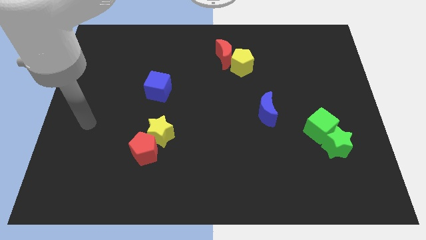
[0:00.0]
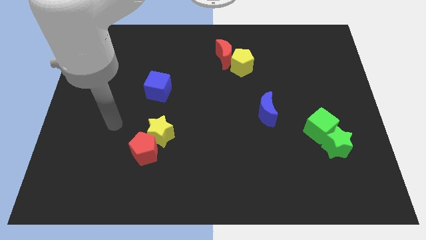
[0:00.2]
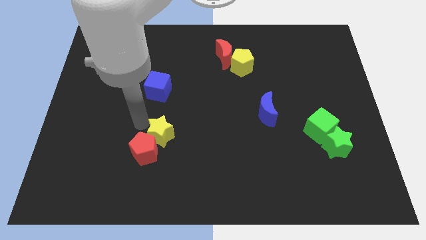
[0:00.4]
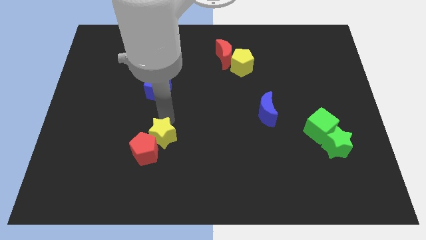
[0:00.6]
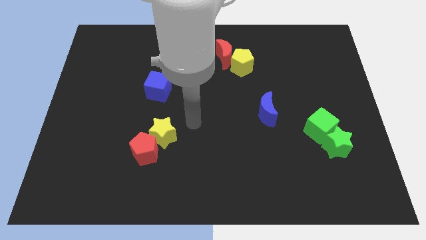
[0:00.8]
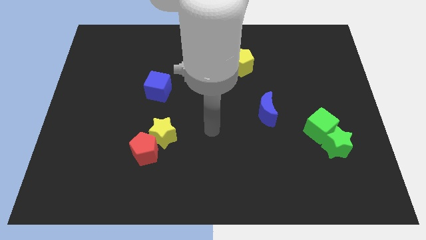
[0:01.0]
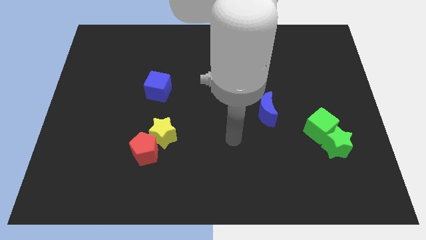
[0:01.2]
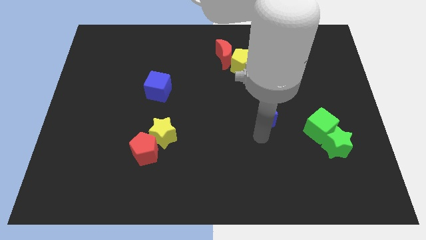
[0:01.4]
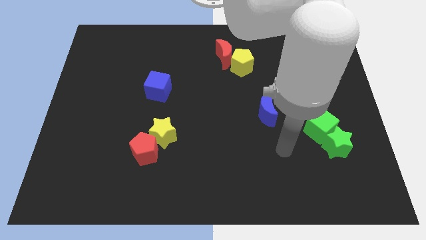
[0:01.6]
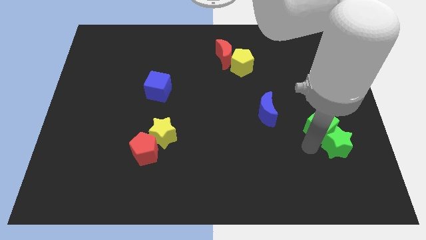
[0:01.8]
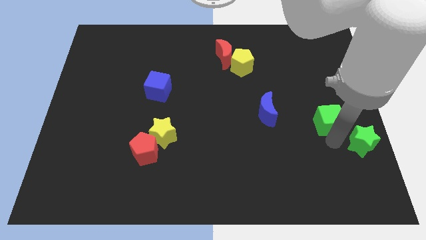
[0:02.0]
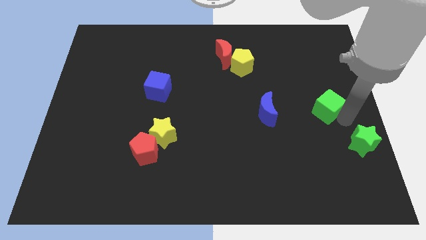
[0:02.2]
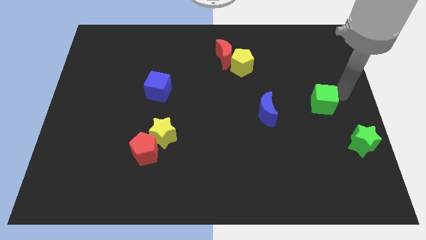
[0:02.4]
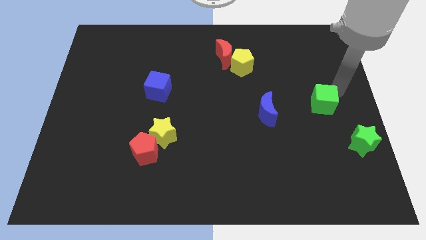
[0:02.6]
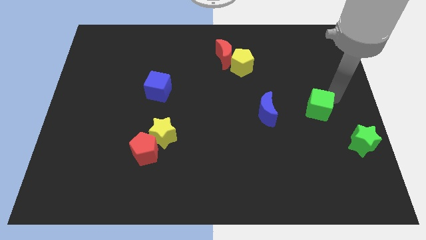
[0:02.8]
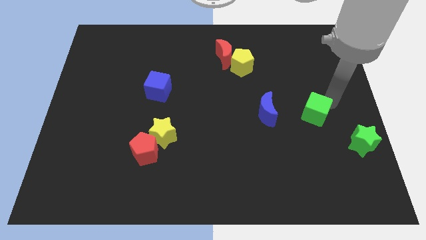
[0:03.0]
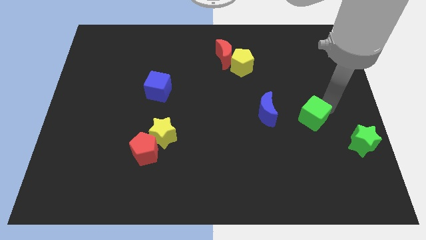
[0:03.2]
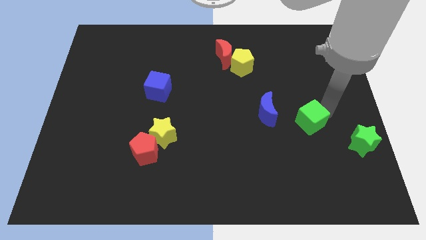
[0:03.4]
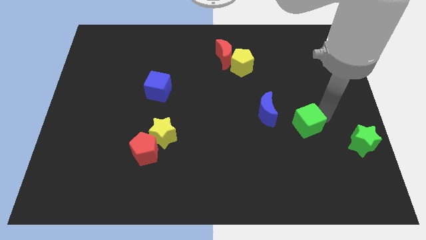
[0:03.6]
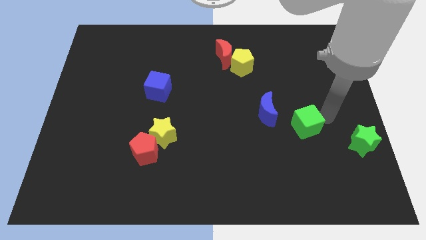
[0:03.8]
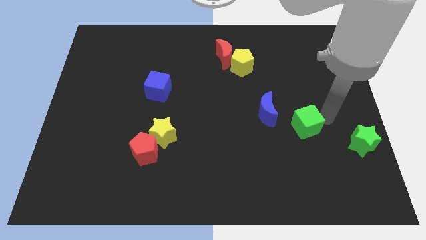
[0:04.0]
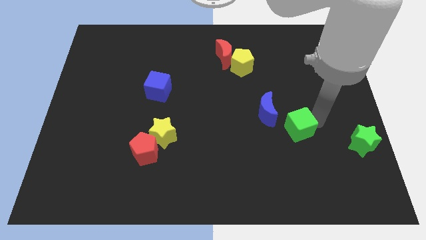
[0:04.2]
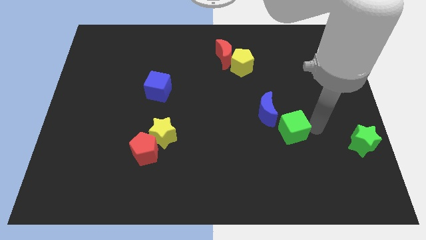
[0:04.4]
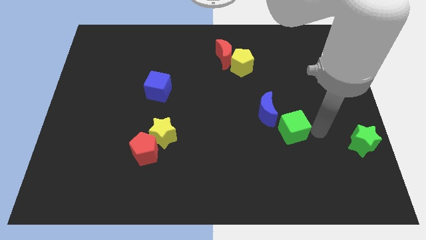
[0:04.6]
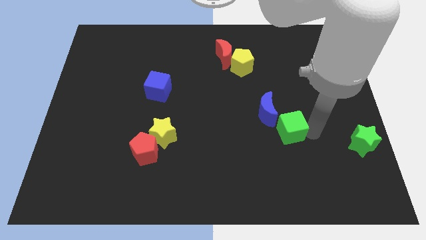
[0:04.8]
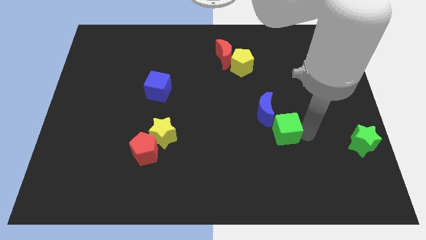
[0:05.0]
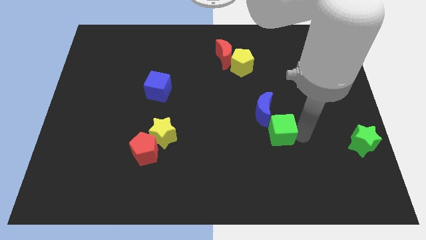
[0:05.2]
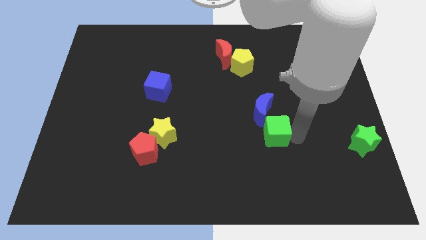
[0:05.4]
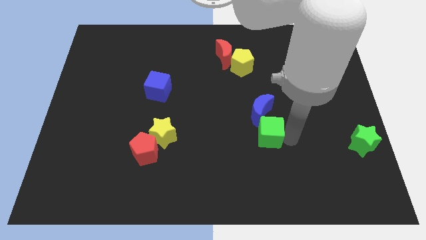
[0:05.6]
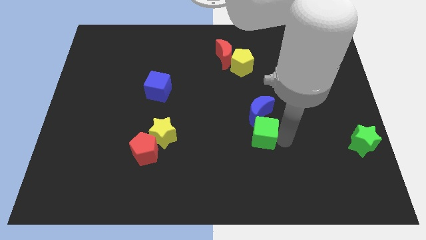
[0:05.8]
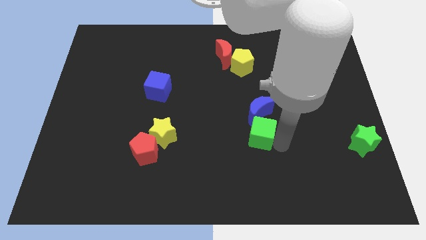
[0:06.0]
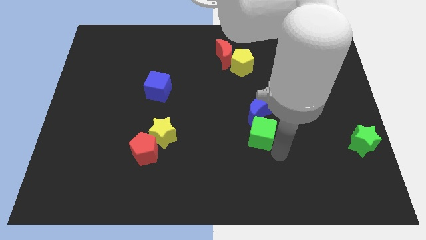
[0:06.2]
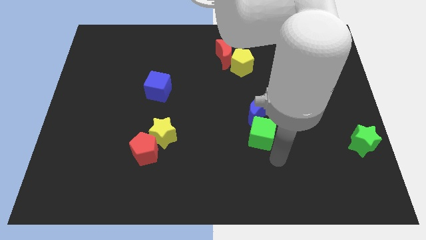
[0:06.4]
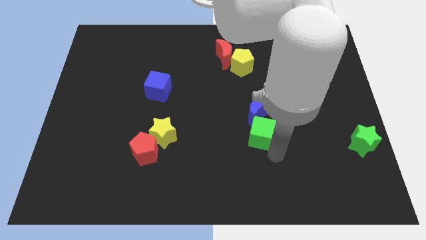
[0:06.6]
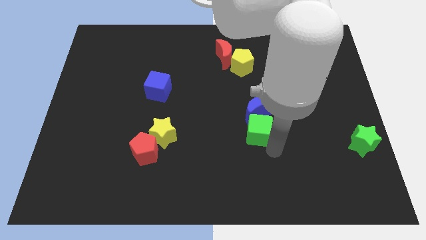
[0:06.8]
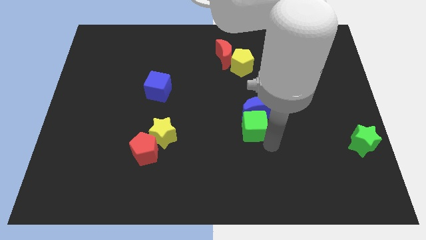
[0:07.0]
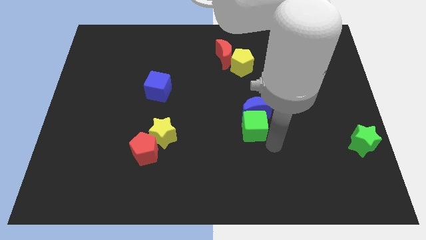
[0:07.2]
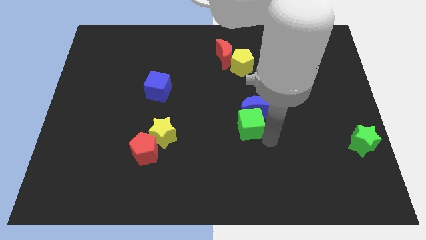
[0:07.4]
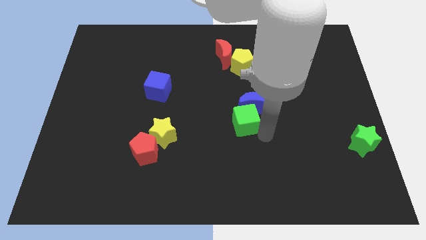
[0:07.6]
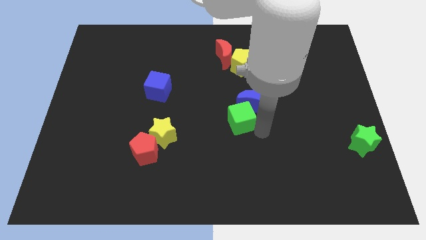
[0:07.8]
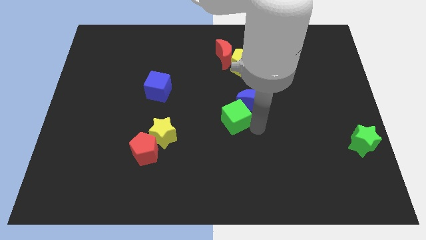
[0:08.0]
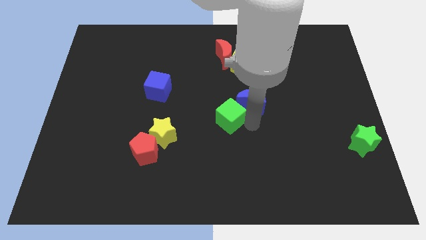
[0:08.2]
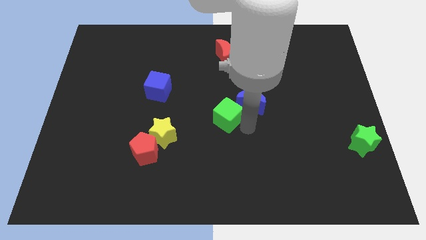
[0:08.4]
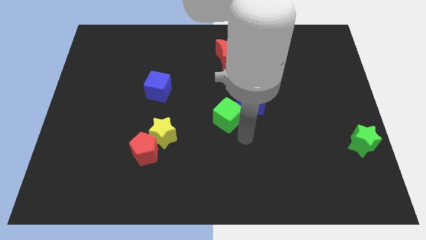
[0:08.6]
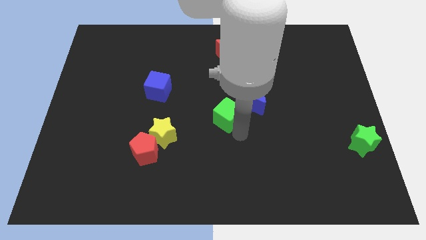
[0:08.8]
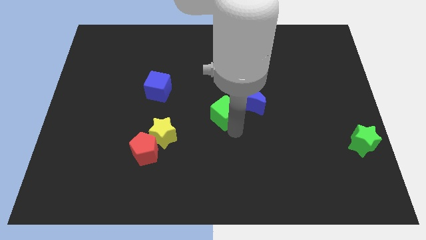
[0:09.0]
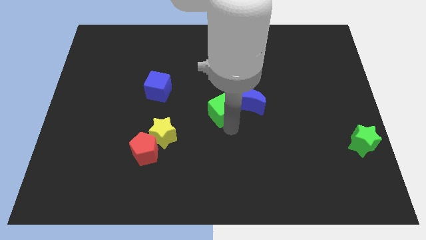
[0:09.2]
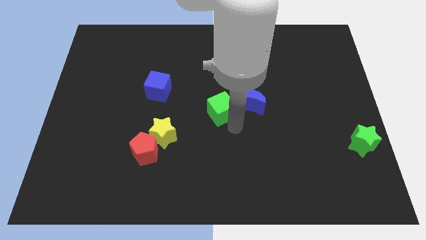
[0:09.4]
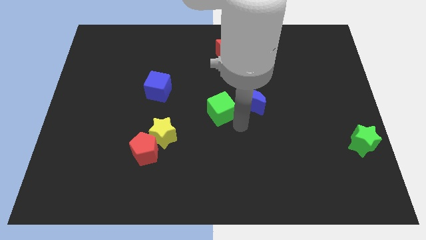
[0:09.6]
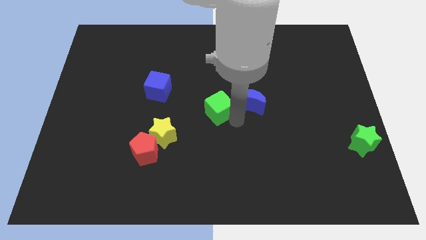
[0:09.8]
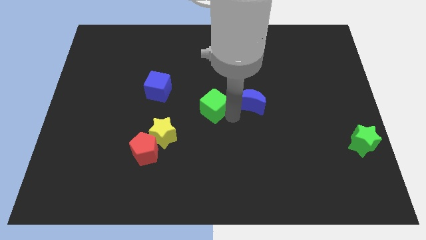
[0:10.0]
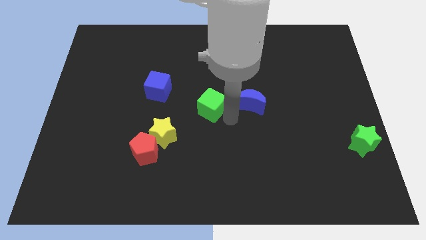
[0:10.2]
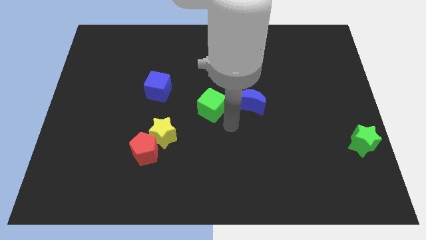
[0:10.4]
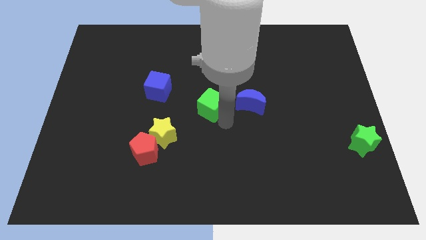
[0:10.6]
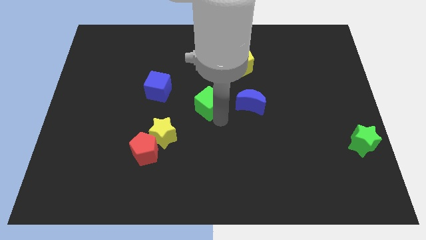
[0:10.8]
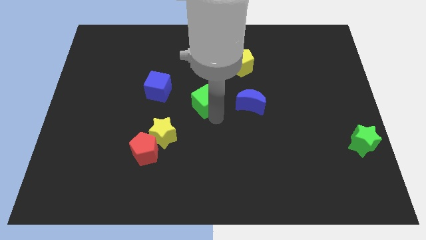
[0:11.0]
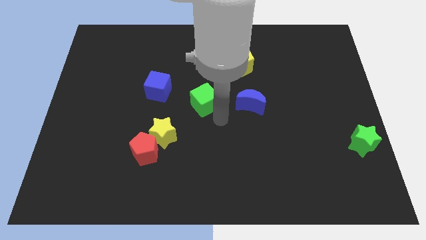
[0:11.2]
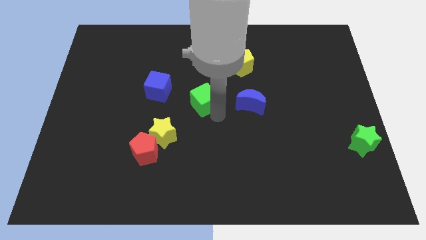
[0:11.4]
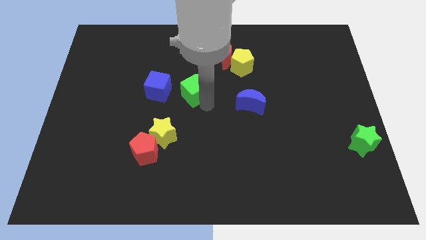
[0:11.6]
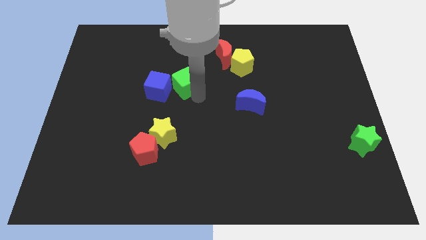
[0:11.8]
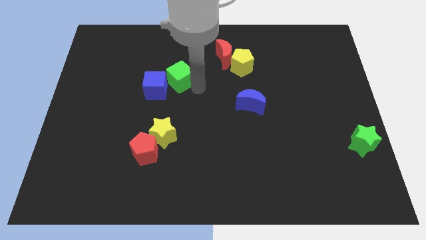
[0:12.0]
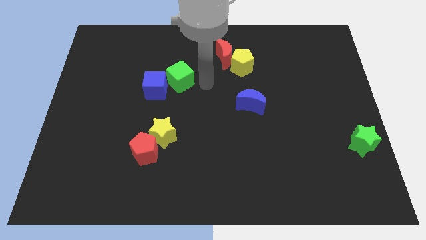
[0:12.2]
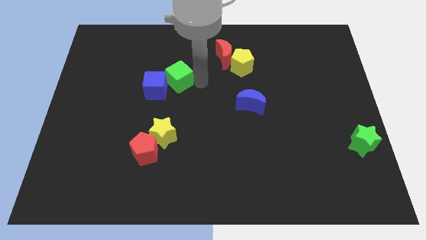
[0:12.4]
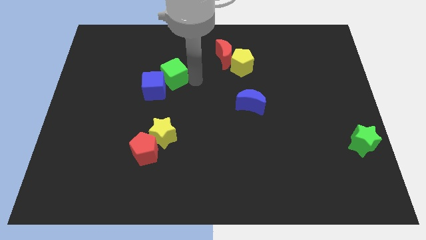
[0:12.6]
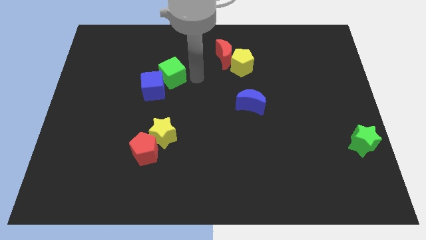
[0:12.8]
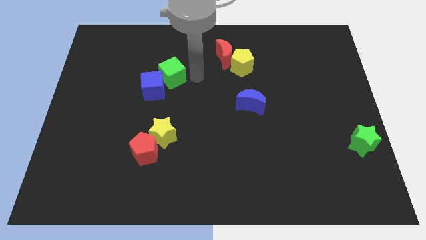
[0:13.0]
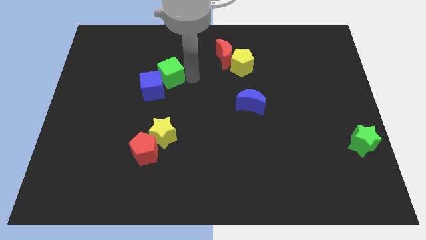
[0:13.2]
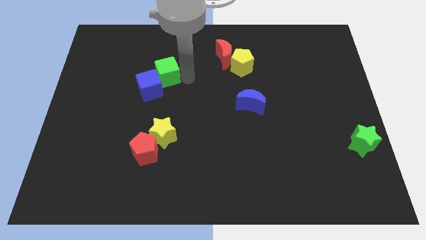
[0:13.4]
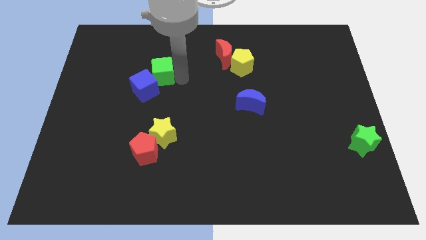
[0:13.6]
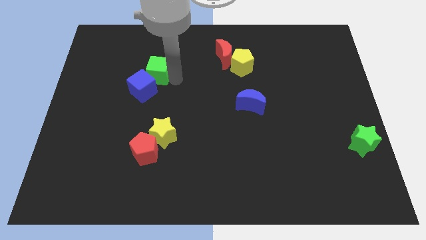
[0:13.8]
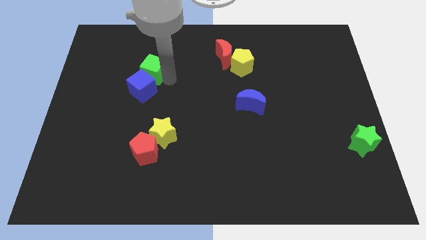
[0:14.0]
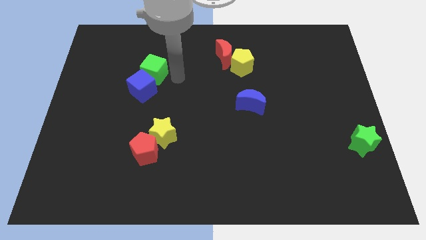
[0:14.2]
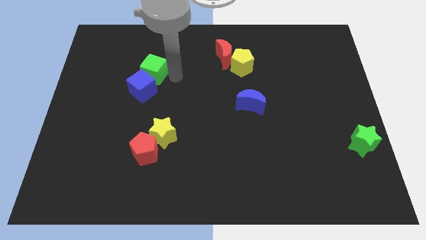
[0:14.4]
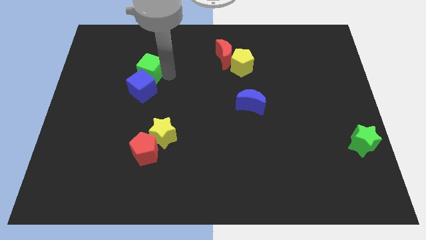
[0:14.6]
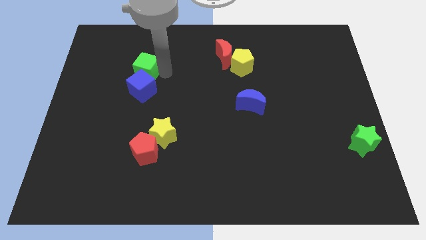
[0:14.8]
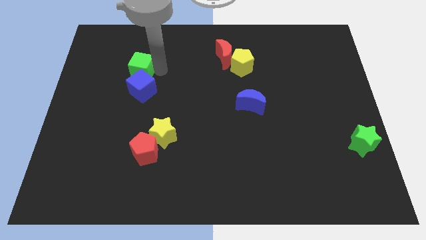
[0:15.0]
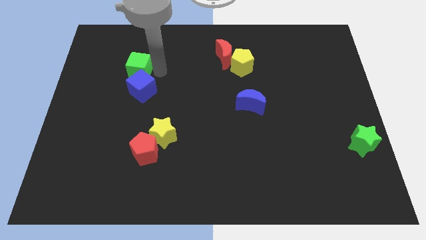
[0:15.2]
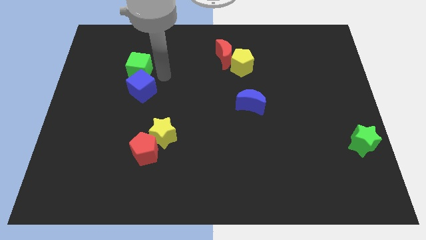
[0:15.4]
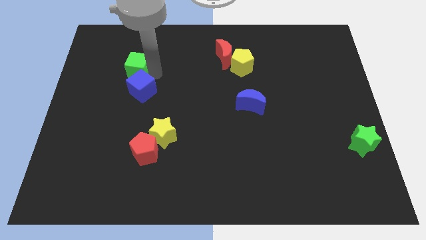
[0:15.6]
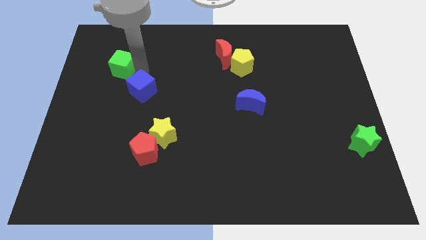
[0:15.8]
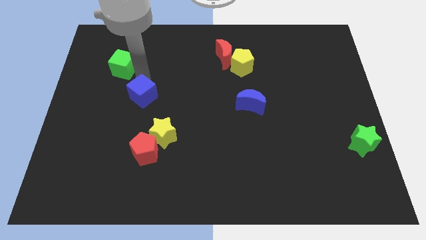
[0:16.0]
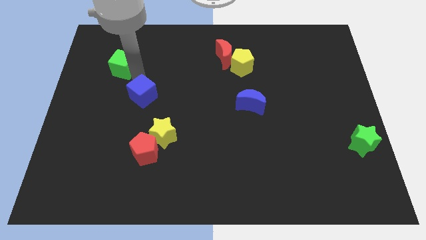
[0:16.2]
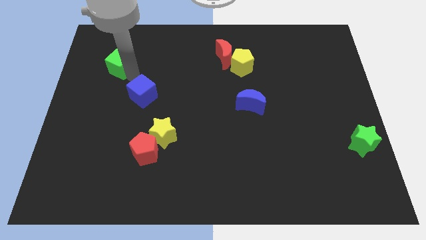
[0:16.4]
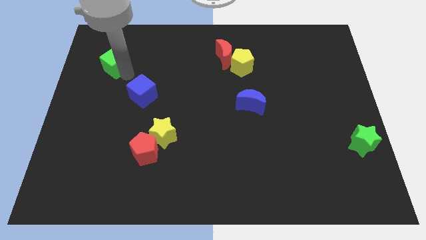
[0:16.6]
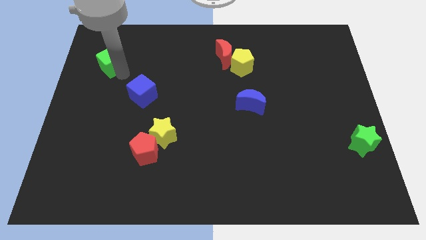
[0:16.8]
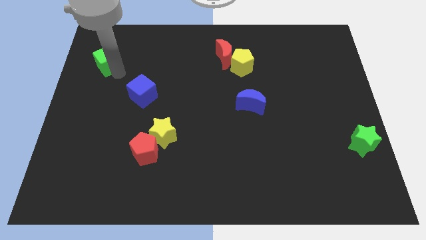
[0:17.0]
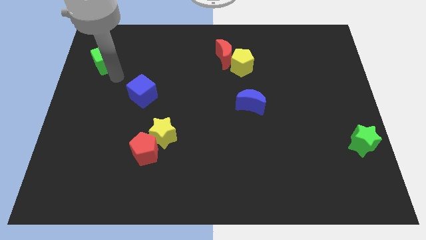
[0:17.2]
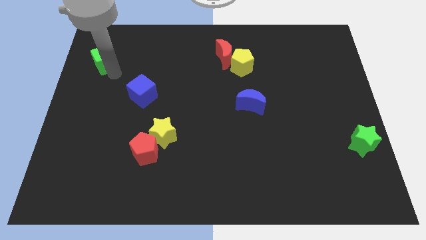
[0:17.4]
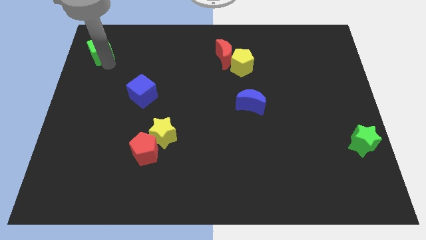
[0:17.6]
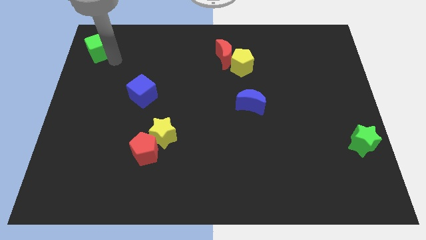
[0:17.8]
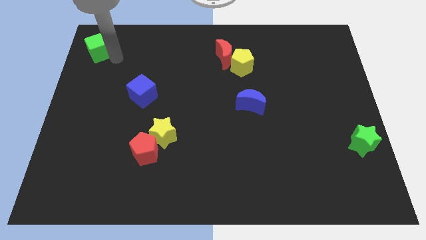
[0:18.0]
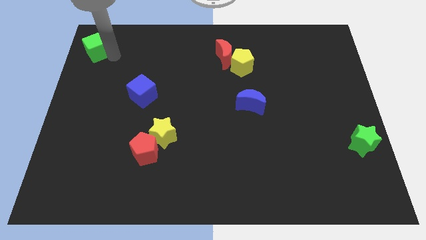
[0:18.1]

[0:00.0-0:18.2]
push the green cube to the upper left corner
